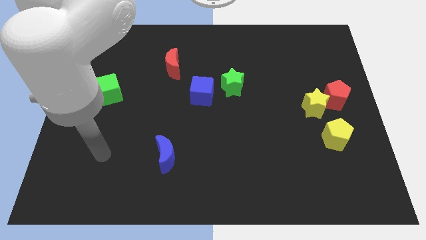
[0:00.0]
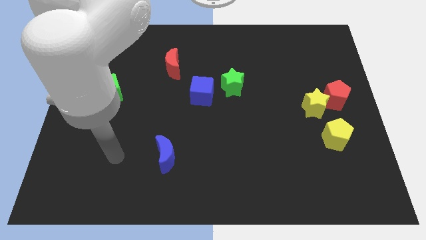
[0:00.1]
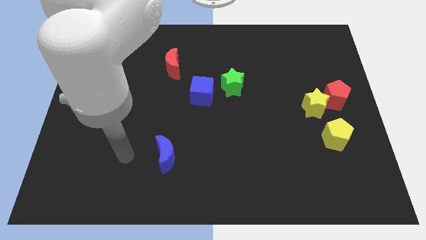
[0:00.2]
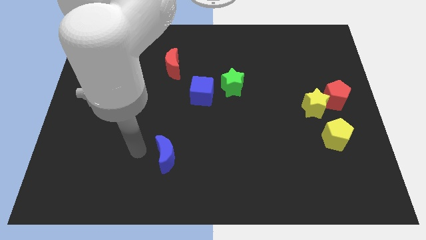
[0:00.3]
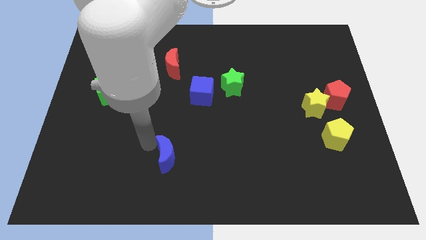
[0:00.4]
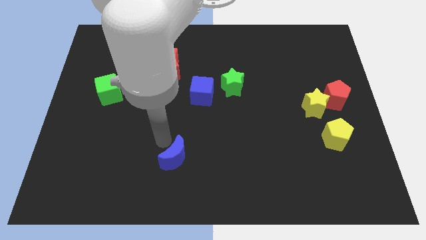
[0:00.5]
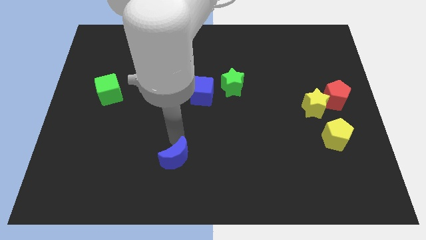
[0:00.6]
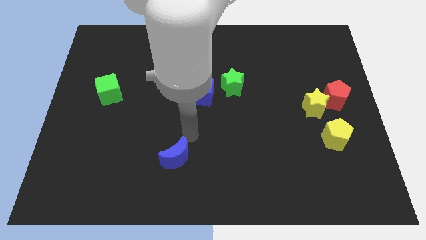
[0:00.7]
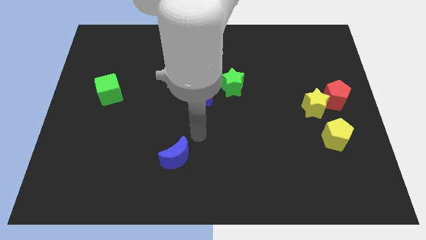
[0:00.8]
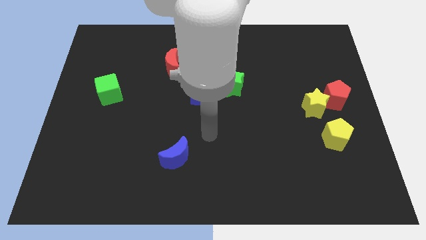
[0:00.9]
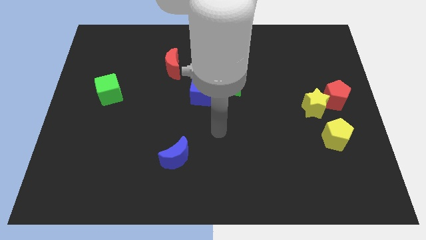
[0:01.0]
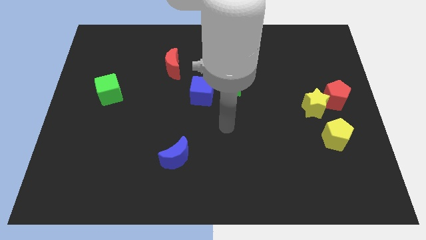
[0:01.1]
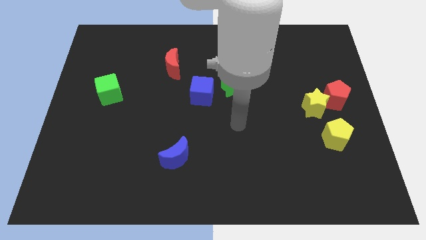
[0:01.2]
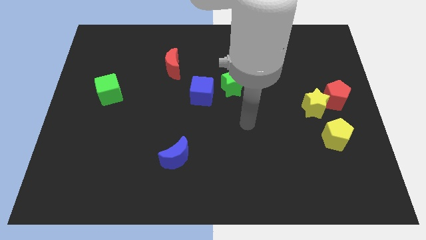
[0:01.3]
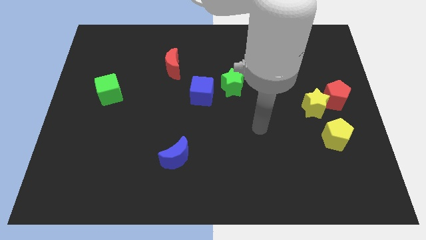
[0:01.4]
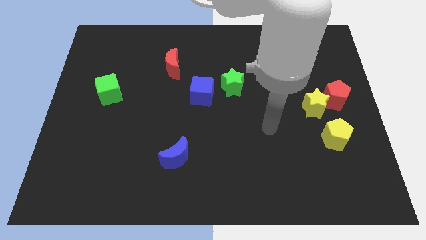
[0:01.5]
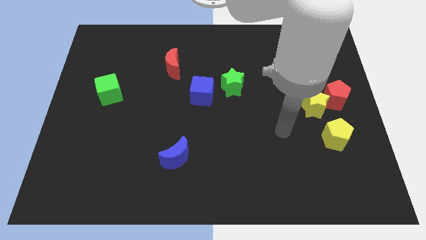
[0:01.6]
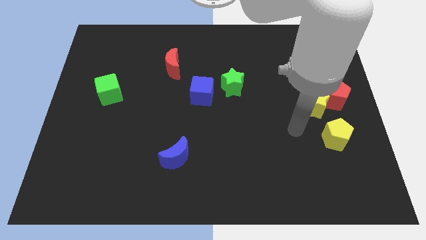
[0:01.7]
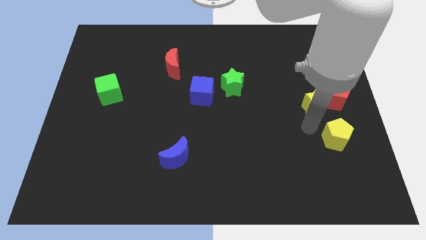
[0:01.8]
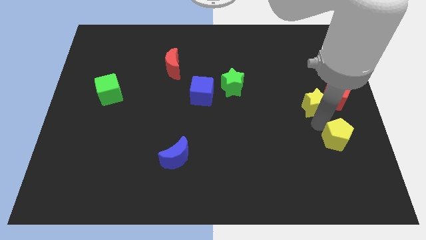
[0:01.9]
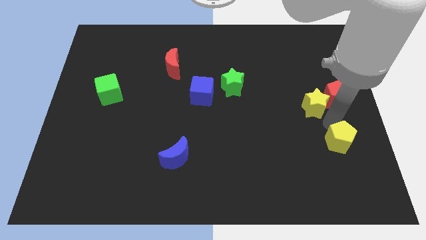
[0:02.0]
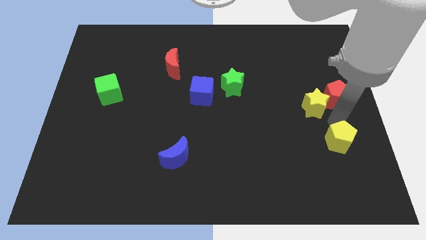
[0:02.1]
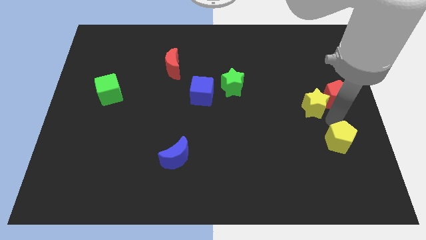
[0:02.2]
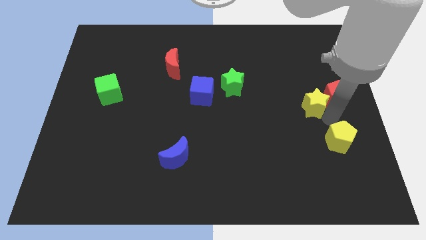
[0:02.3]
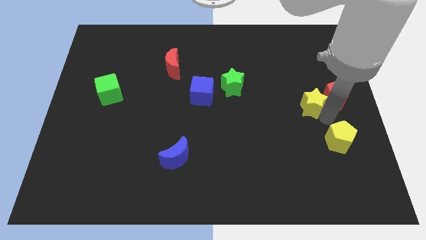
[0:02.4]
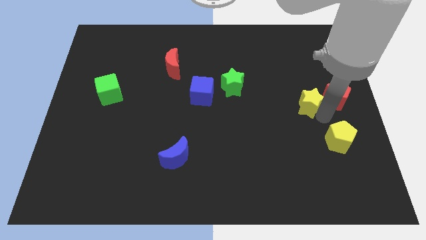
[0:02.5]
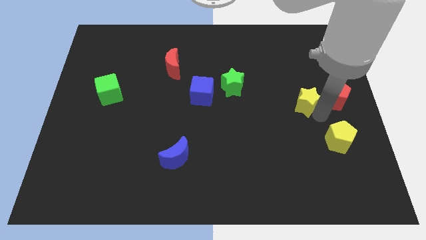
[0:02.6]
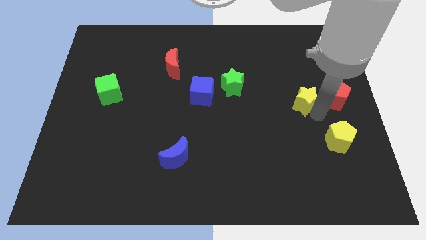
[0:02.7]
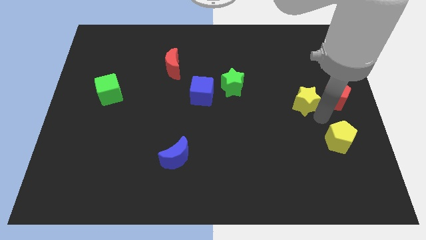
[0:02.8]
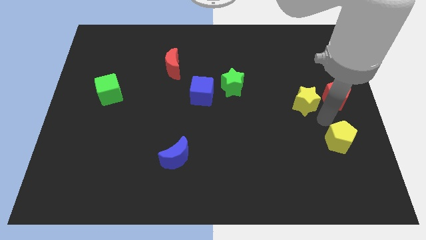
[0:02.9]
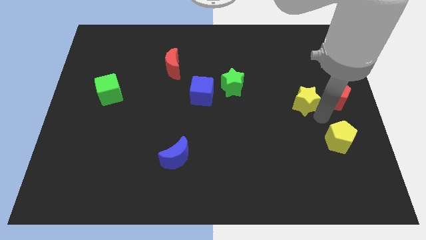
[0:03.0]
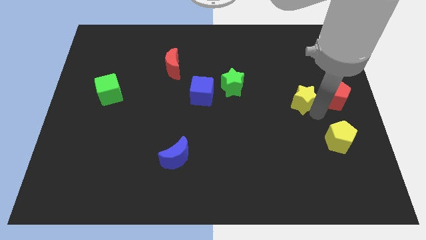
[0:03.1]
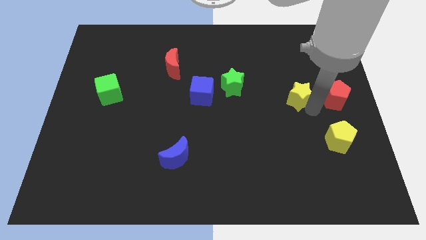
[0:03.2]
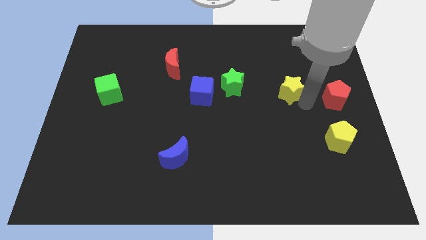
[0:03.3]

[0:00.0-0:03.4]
slightly slide the yellow star up and to the left

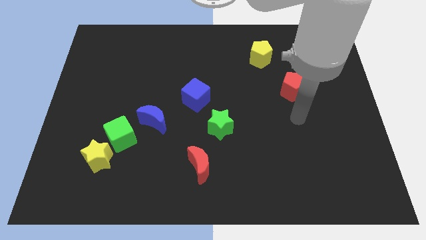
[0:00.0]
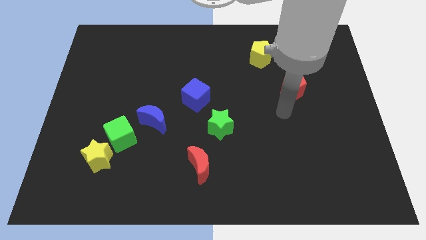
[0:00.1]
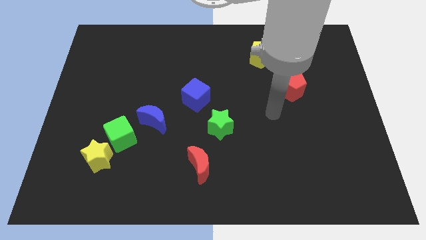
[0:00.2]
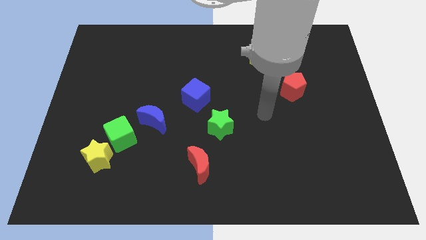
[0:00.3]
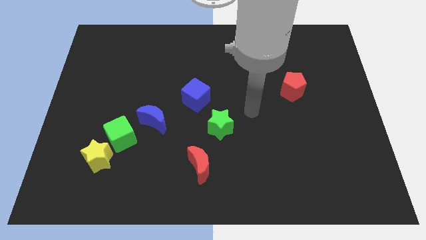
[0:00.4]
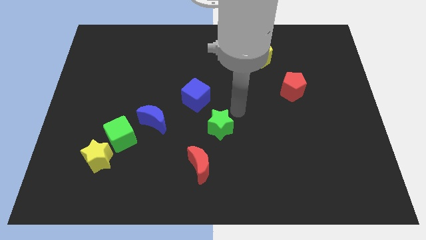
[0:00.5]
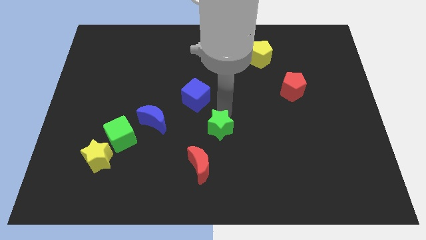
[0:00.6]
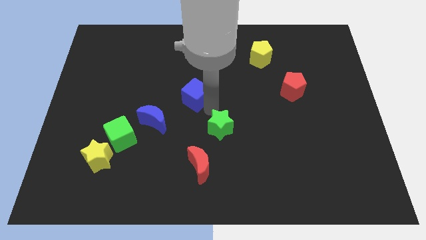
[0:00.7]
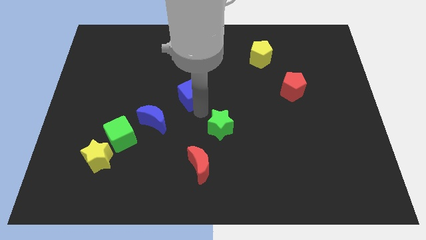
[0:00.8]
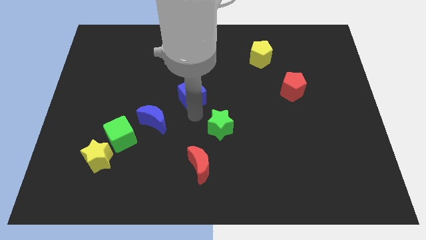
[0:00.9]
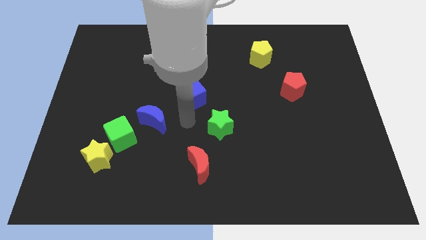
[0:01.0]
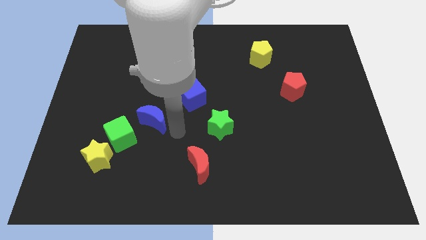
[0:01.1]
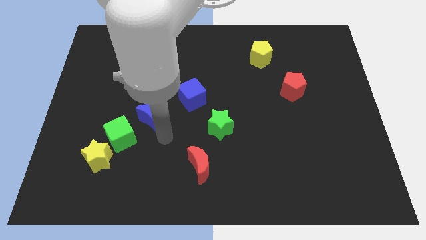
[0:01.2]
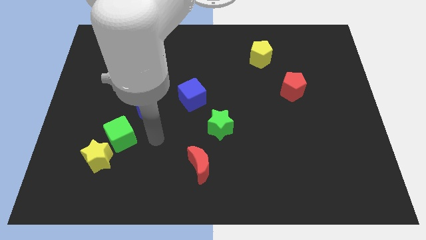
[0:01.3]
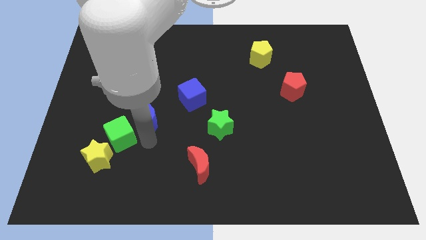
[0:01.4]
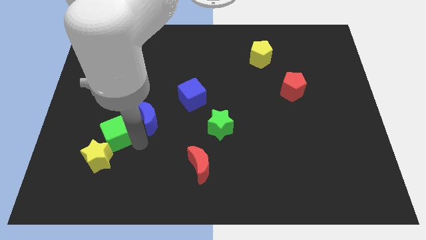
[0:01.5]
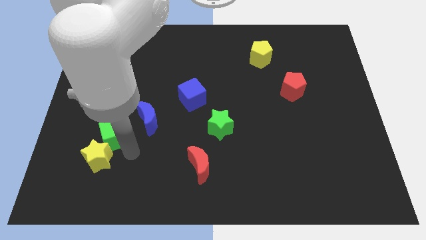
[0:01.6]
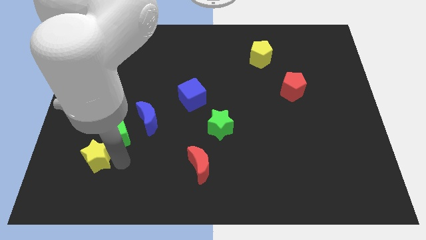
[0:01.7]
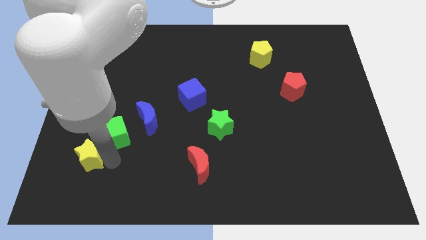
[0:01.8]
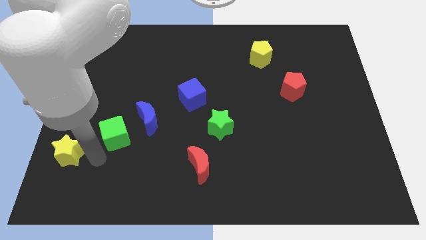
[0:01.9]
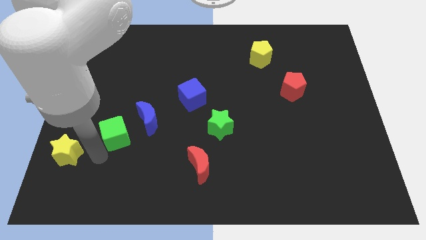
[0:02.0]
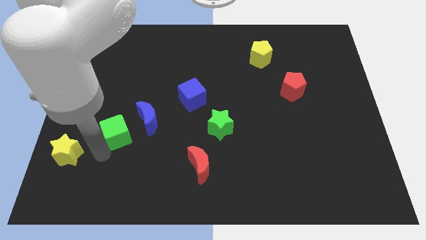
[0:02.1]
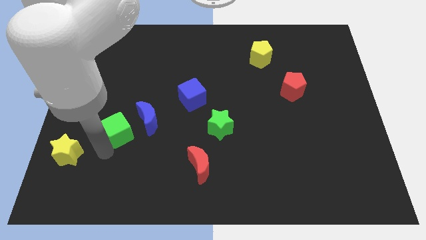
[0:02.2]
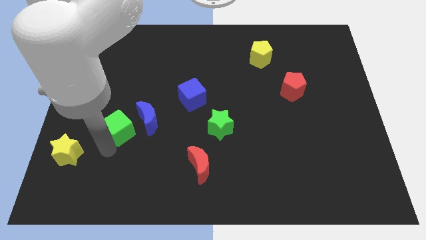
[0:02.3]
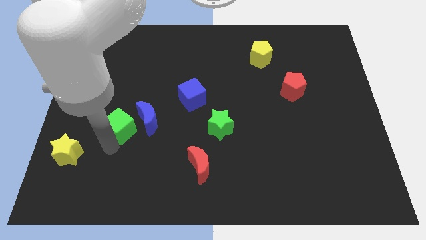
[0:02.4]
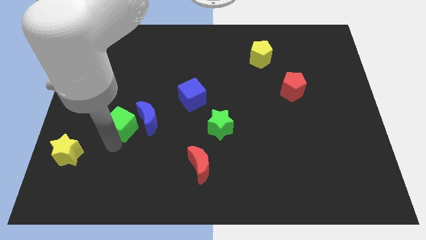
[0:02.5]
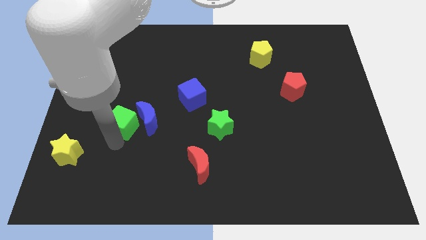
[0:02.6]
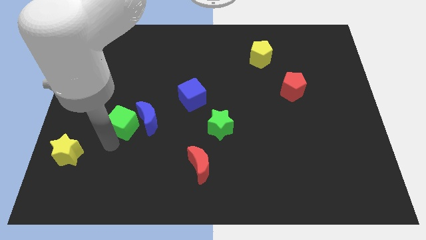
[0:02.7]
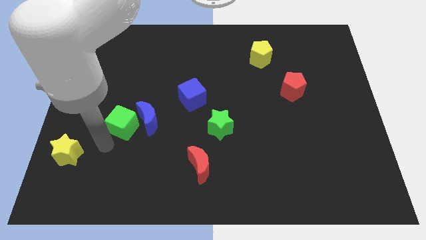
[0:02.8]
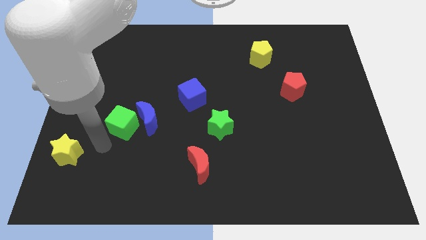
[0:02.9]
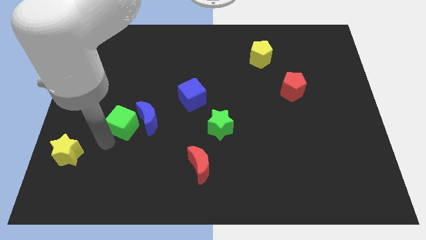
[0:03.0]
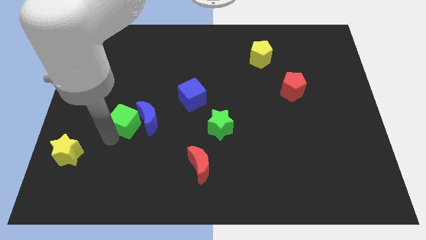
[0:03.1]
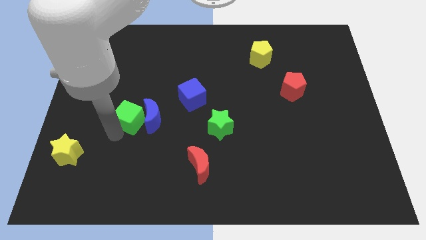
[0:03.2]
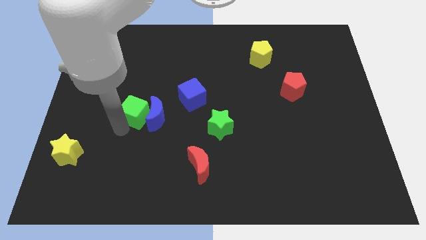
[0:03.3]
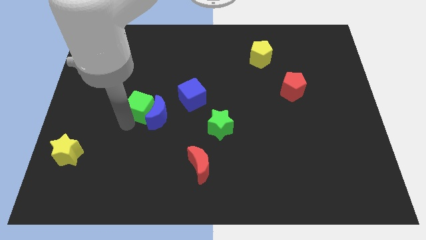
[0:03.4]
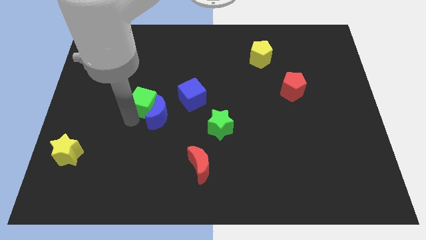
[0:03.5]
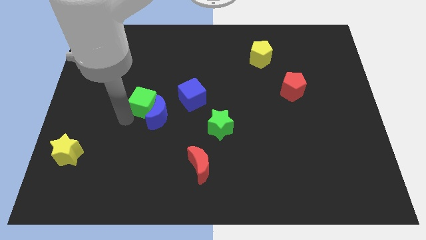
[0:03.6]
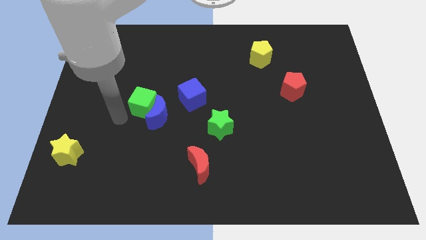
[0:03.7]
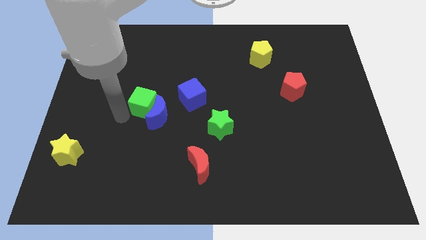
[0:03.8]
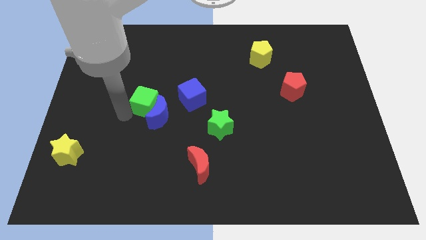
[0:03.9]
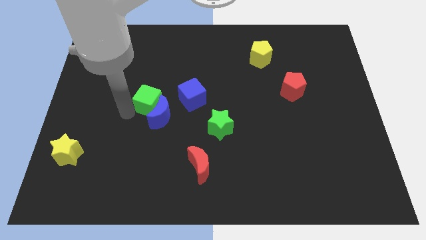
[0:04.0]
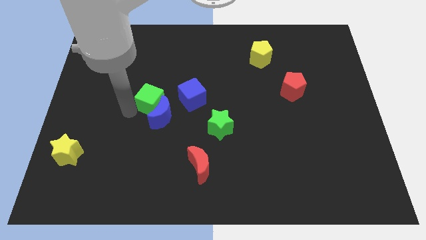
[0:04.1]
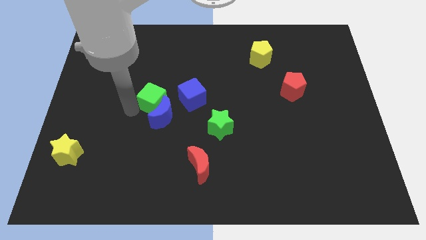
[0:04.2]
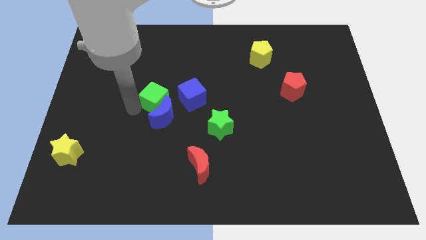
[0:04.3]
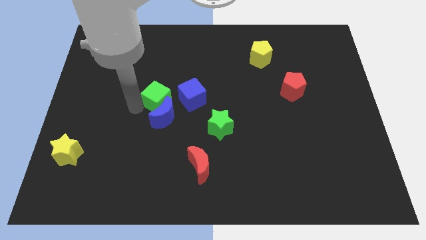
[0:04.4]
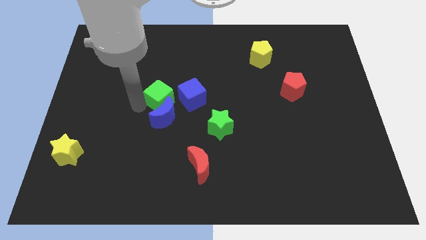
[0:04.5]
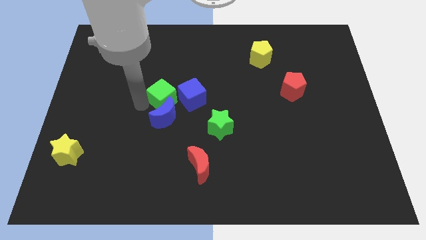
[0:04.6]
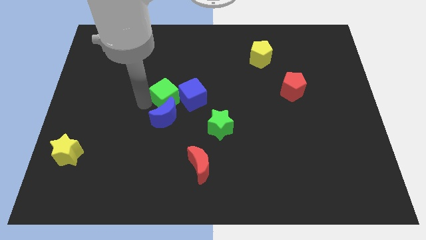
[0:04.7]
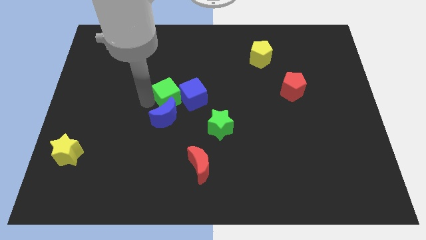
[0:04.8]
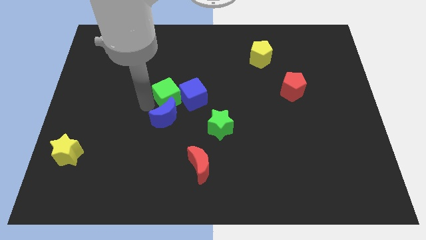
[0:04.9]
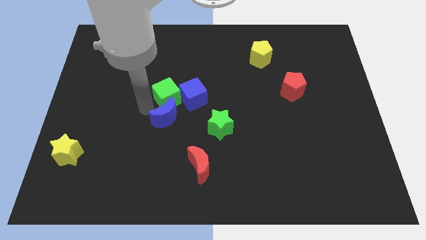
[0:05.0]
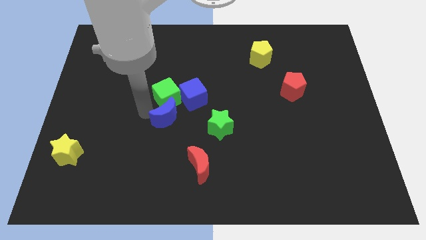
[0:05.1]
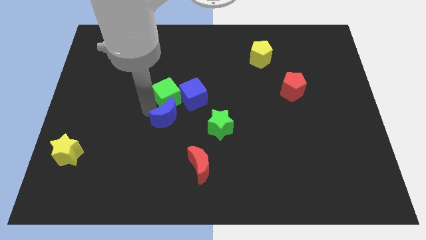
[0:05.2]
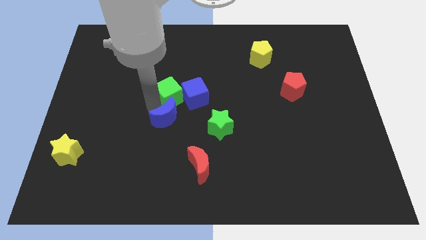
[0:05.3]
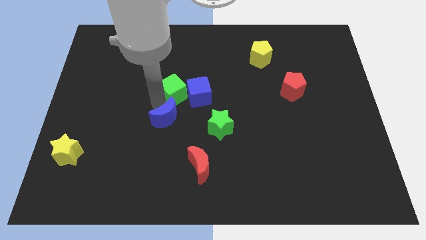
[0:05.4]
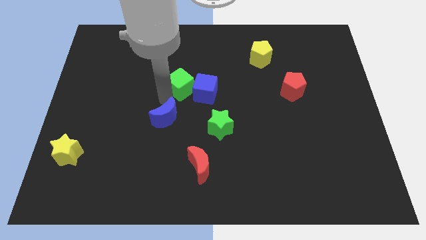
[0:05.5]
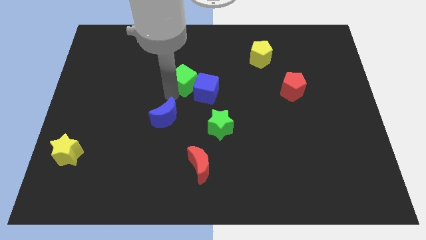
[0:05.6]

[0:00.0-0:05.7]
push the green cube up and to the right diagonally
